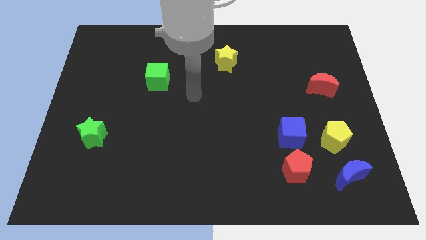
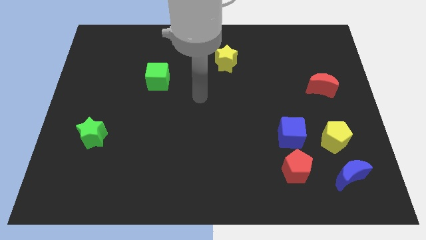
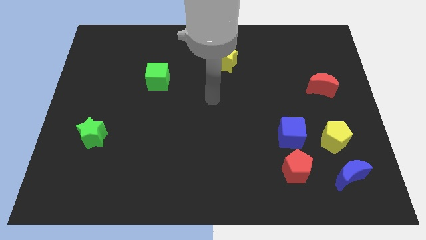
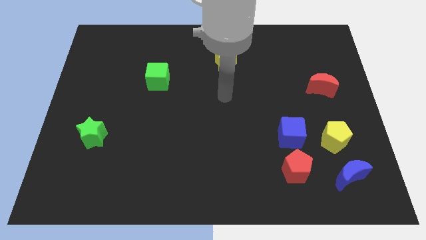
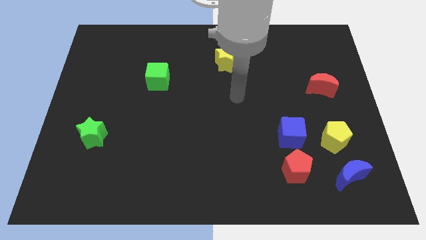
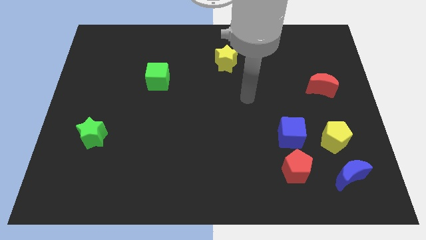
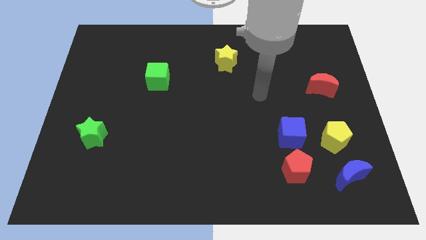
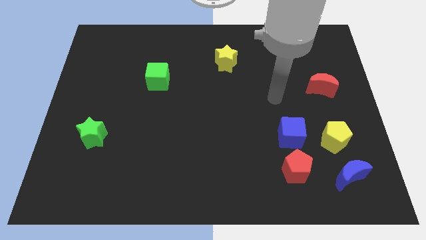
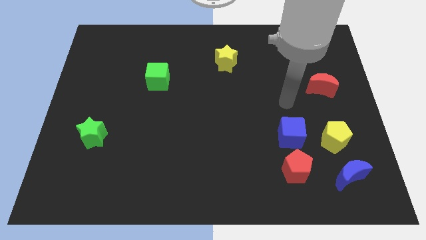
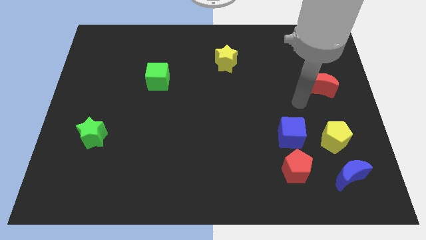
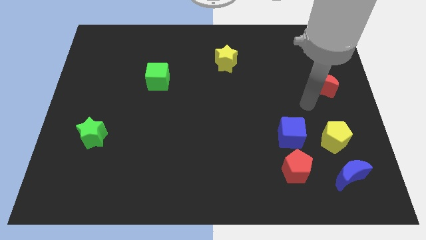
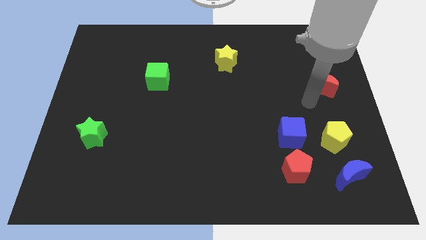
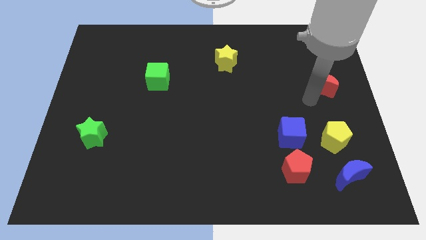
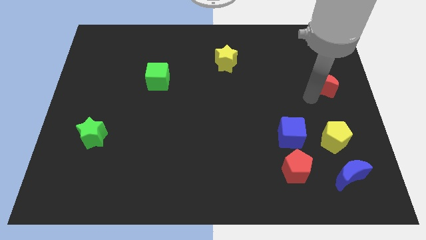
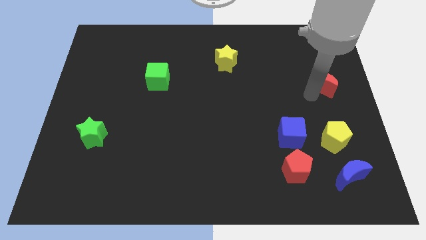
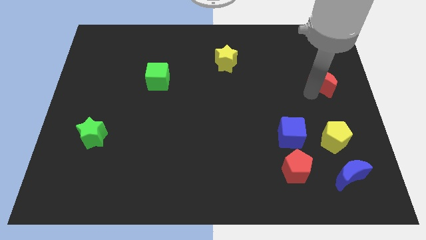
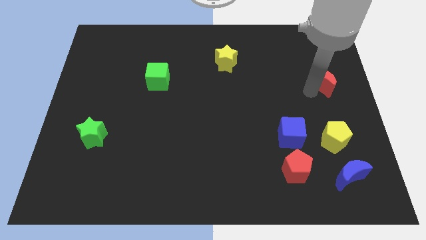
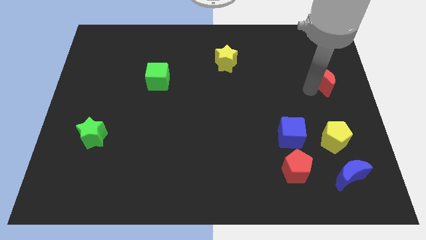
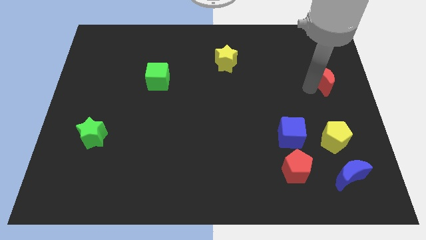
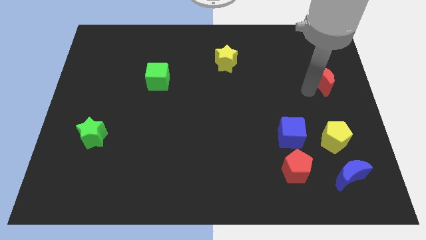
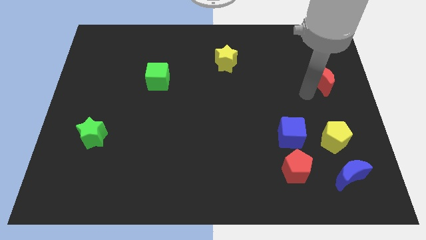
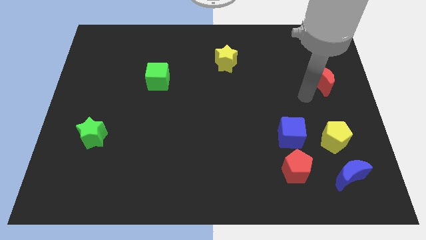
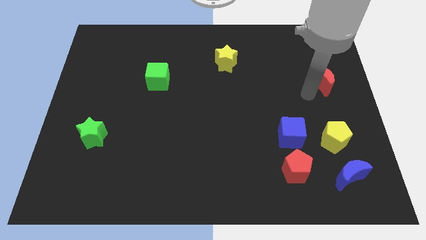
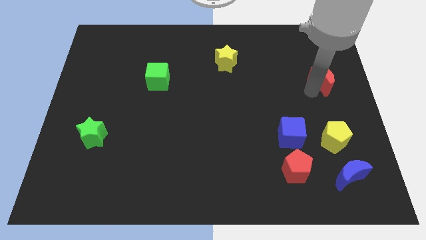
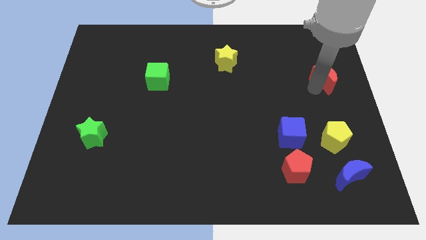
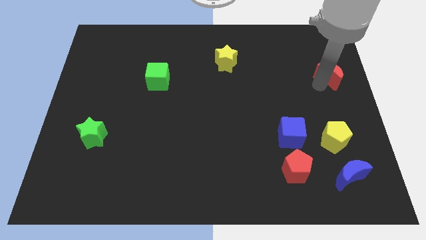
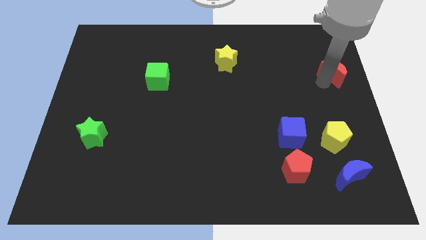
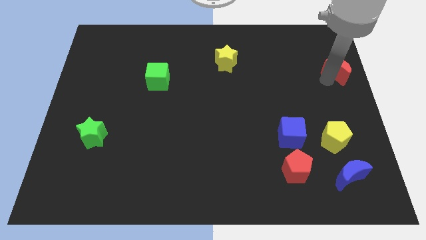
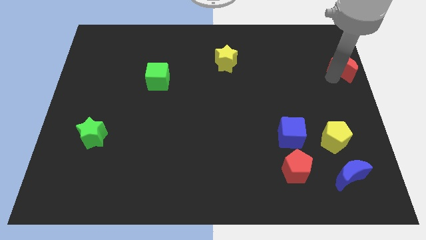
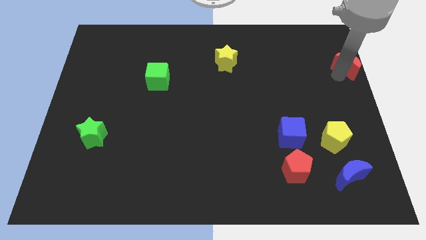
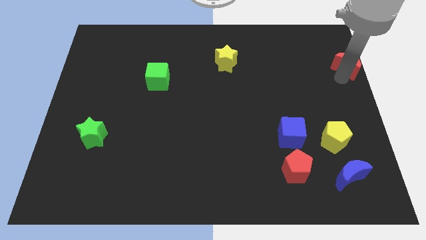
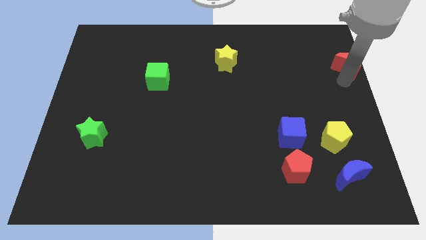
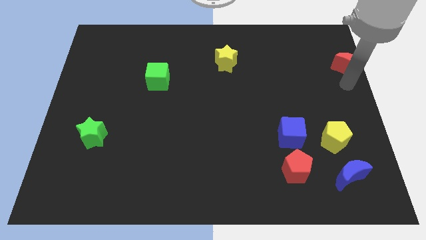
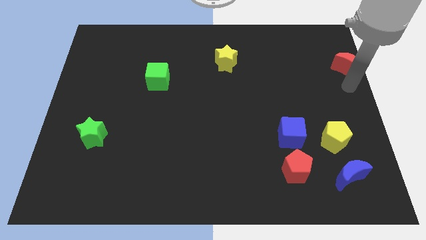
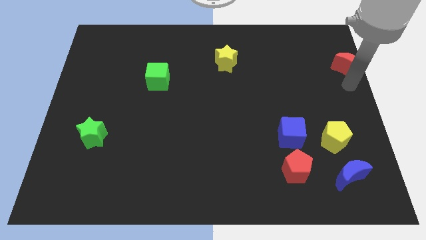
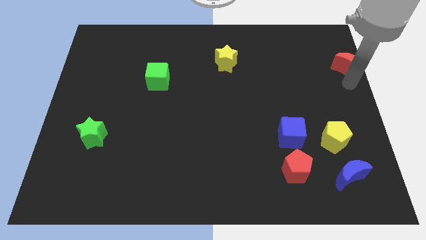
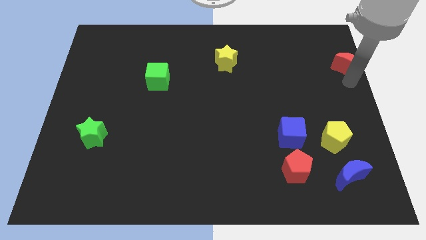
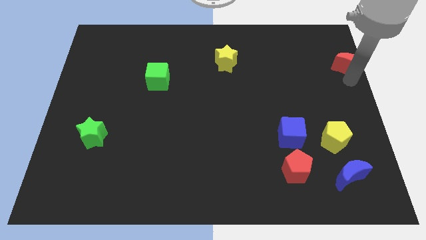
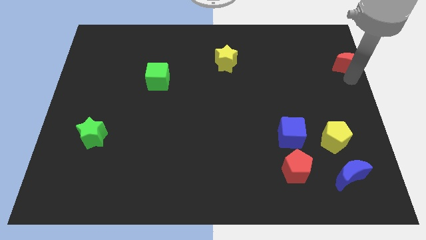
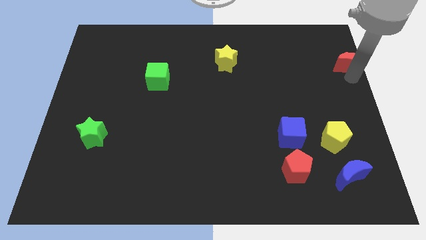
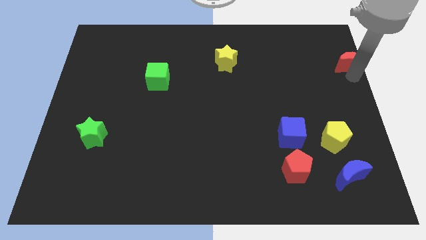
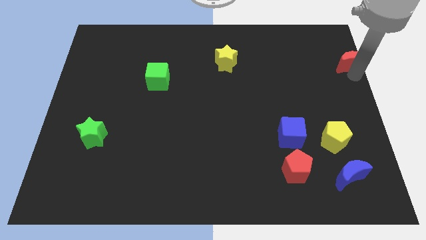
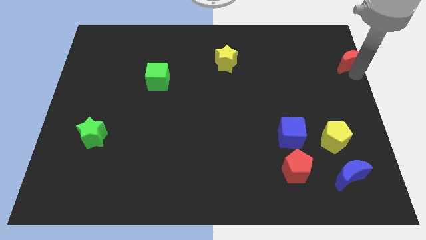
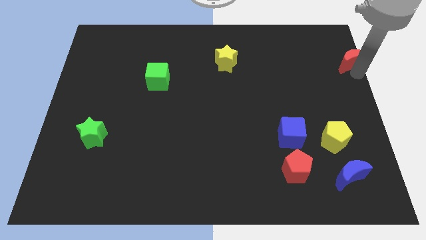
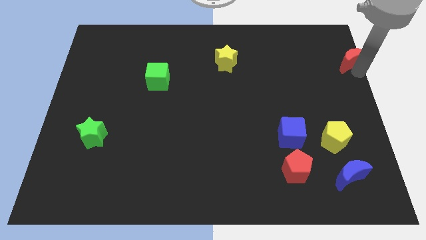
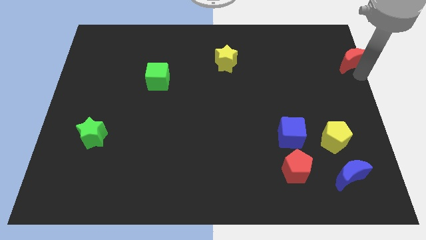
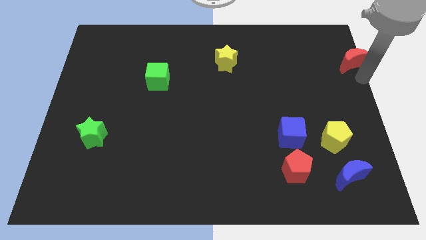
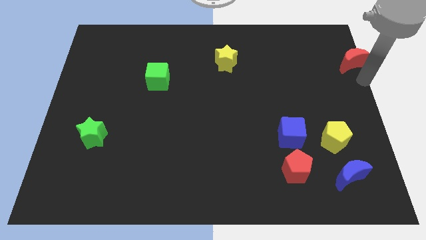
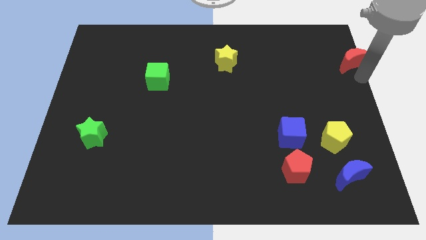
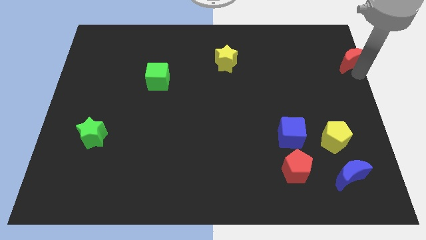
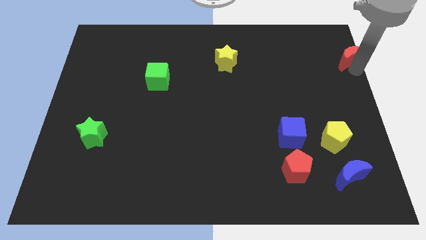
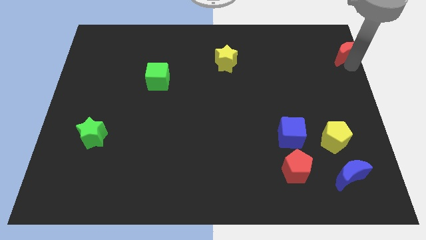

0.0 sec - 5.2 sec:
push the red moon to the top right

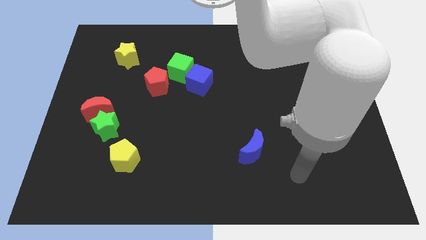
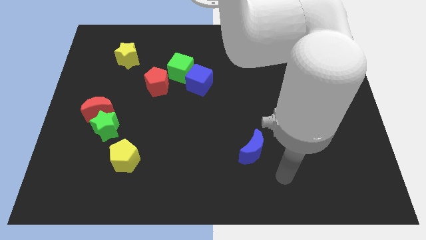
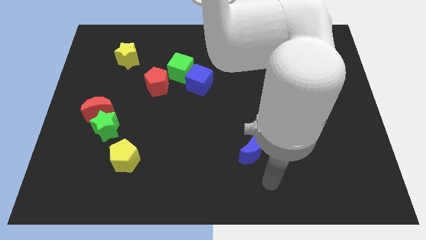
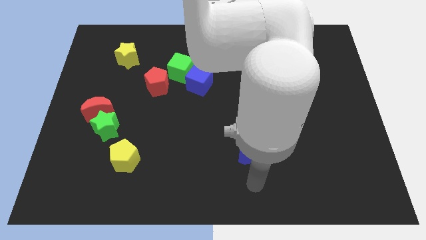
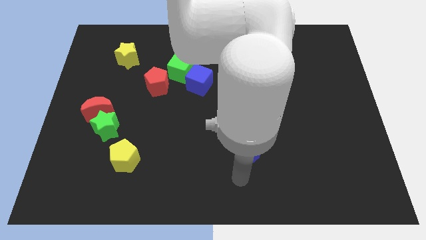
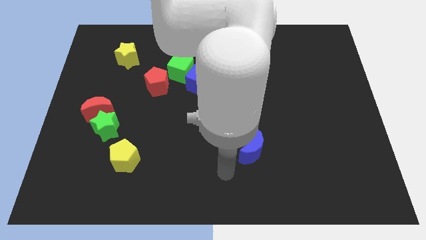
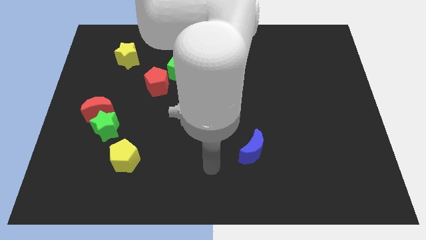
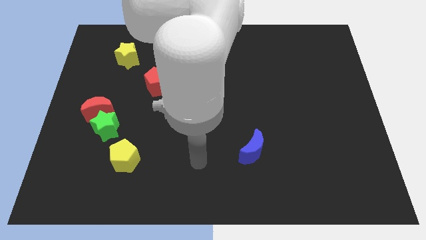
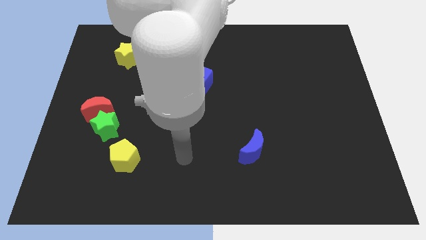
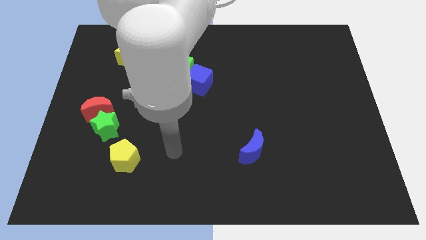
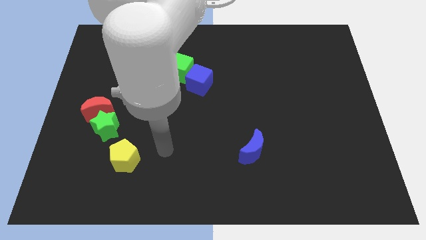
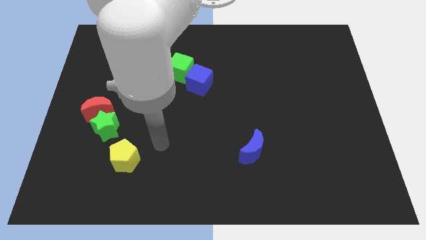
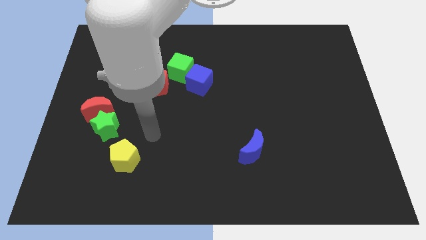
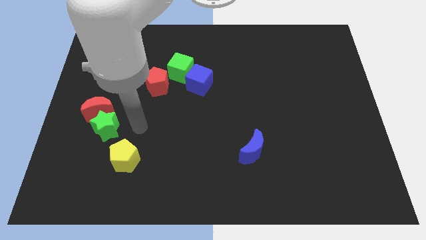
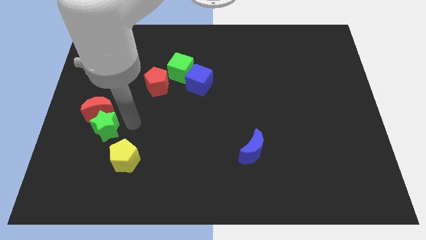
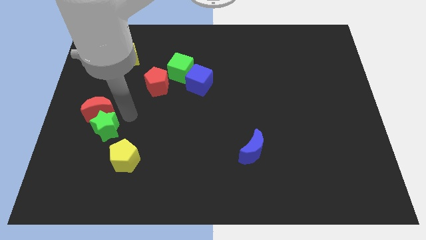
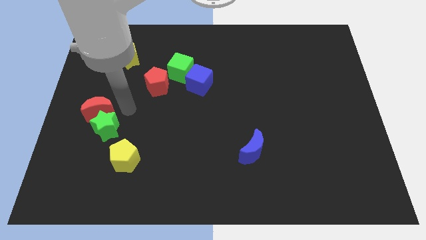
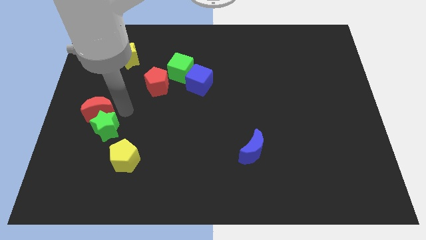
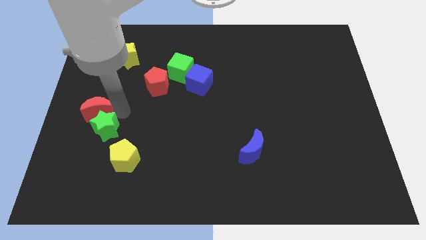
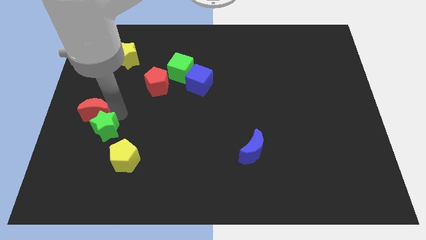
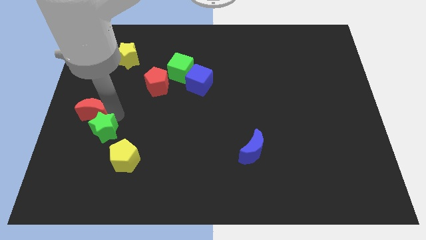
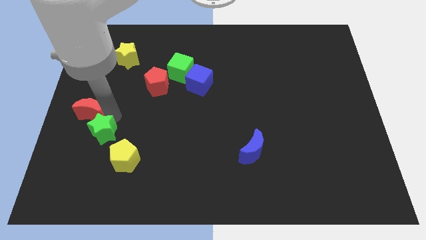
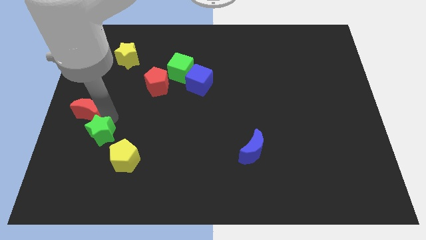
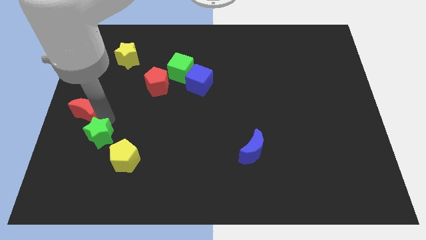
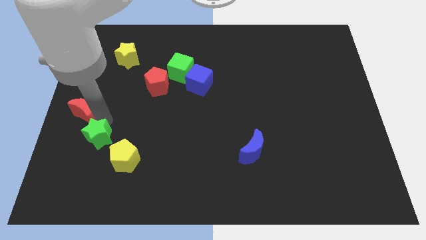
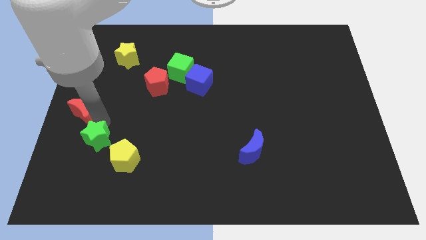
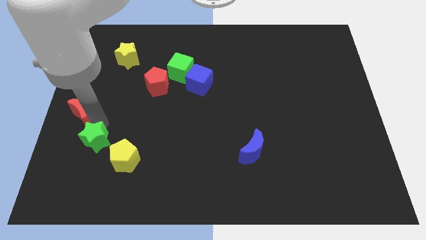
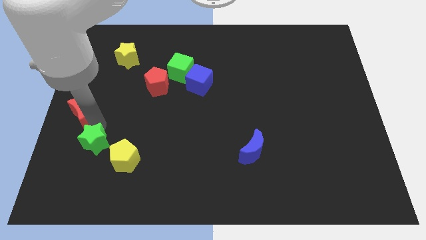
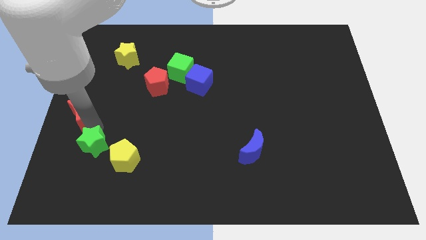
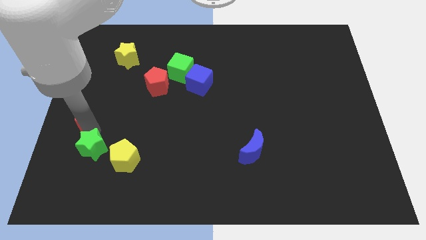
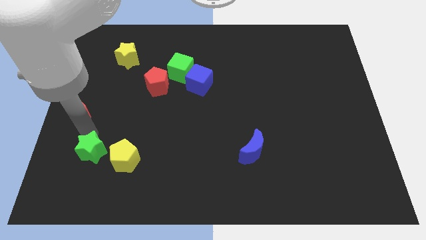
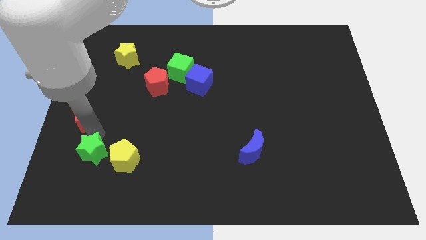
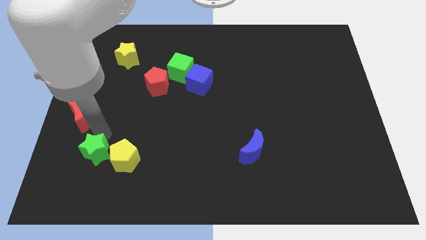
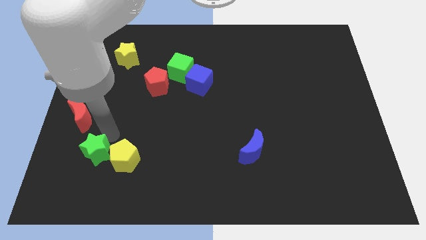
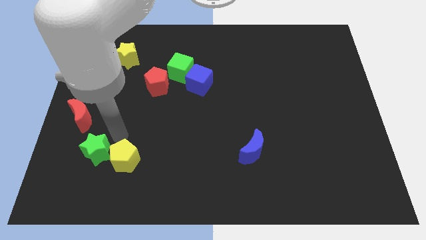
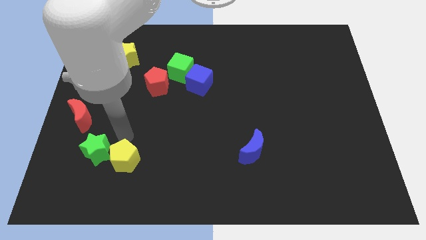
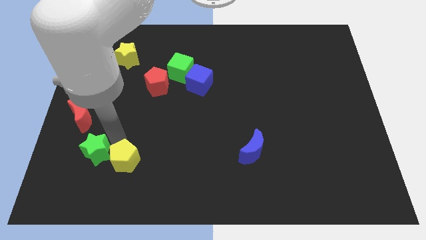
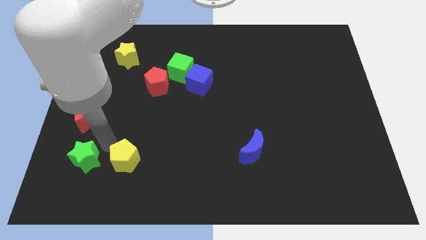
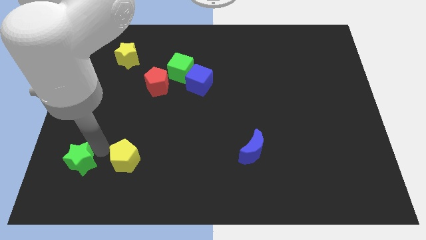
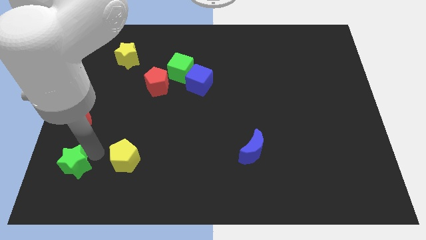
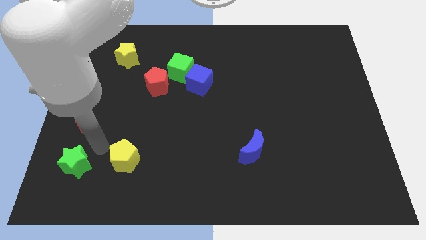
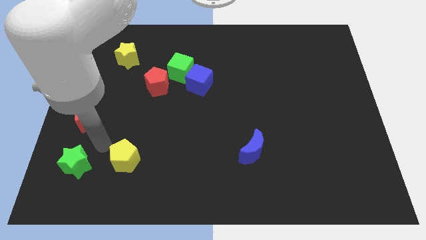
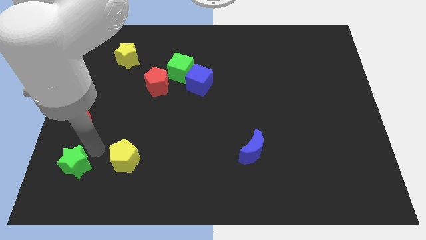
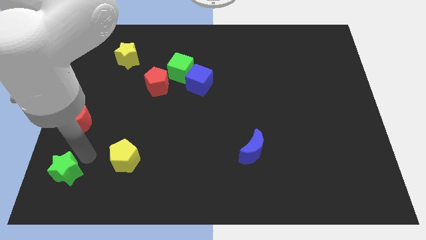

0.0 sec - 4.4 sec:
move the green star to the bottom left of the board
